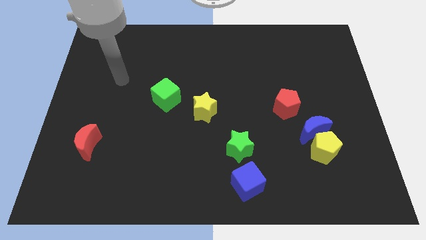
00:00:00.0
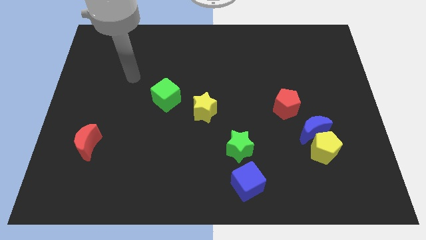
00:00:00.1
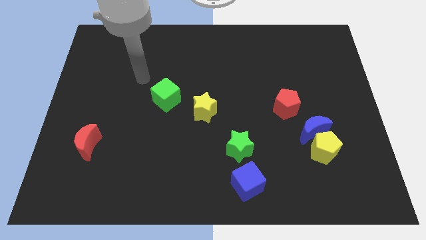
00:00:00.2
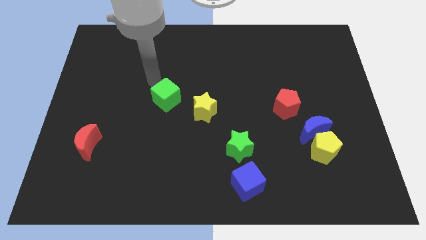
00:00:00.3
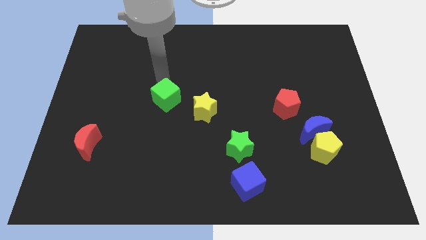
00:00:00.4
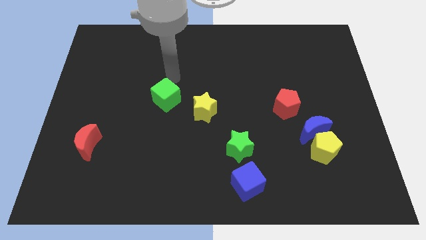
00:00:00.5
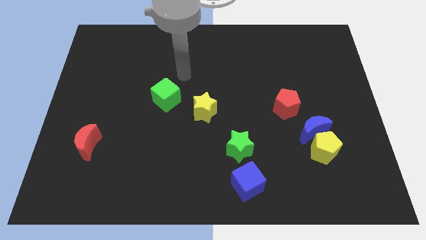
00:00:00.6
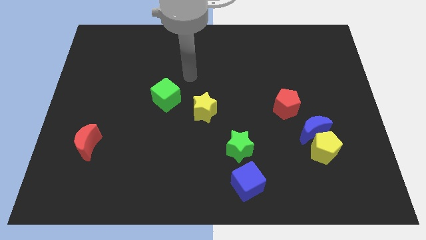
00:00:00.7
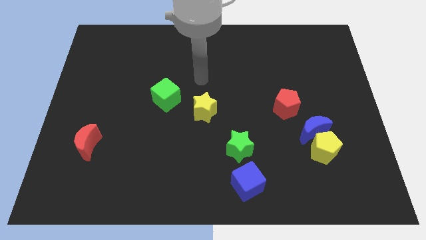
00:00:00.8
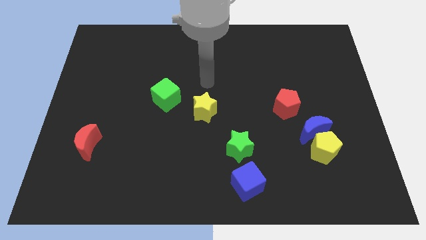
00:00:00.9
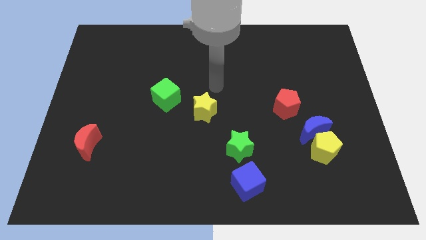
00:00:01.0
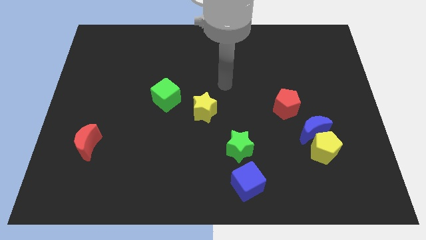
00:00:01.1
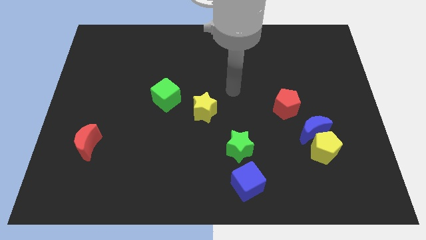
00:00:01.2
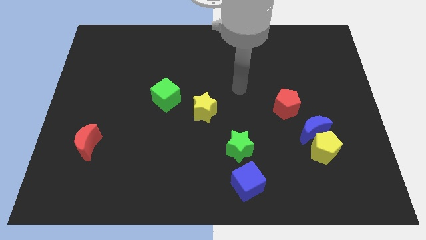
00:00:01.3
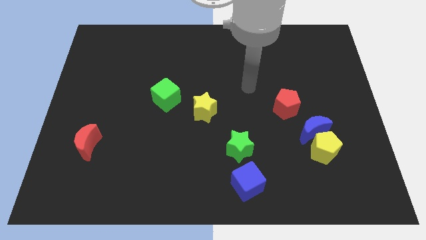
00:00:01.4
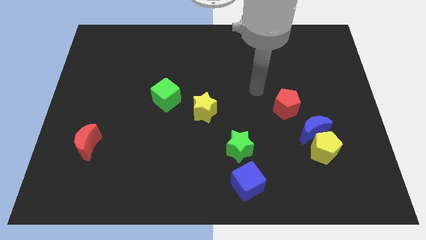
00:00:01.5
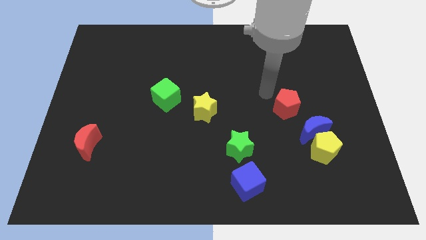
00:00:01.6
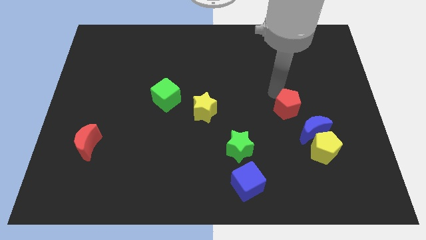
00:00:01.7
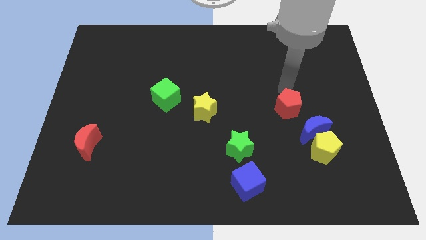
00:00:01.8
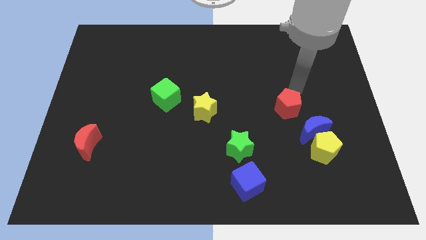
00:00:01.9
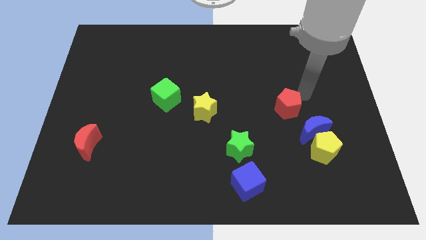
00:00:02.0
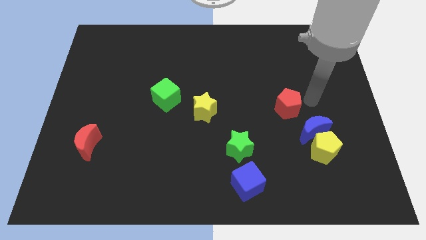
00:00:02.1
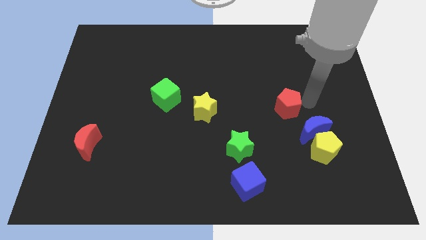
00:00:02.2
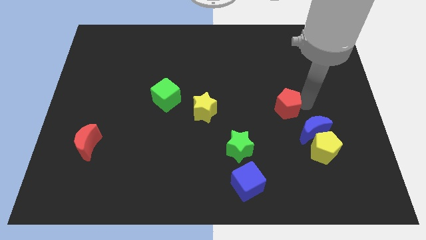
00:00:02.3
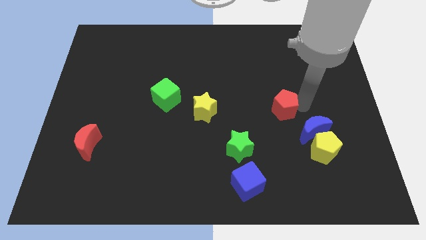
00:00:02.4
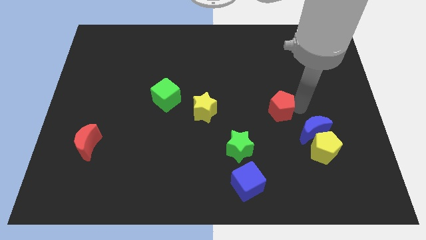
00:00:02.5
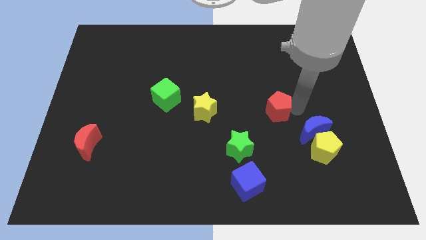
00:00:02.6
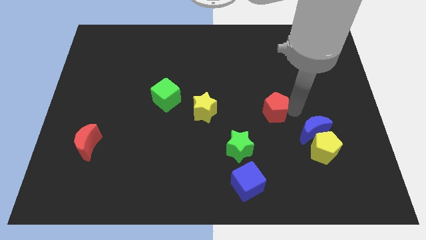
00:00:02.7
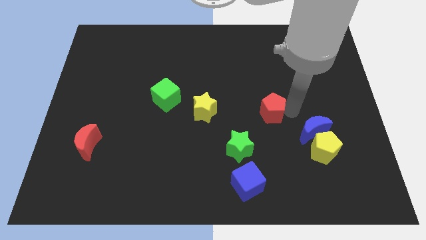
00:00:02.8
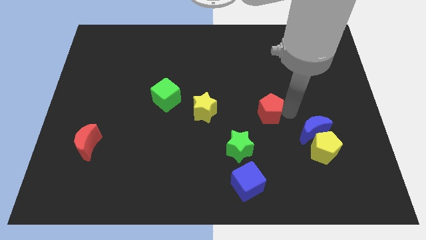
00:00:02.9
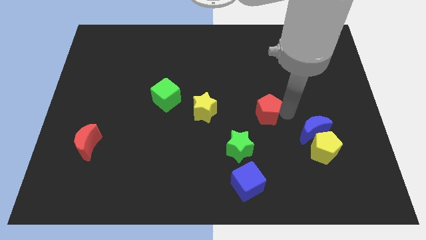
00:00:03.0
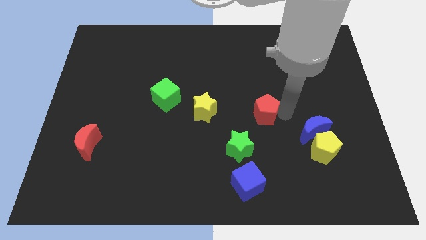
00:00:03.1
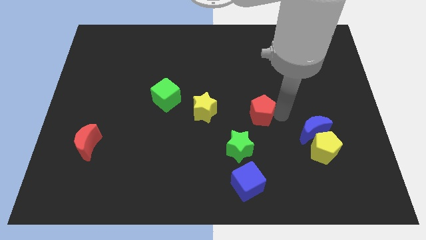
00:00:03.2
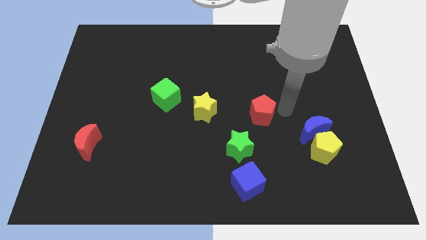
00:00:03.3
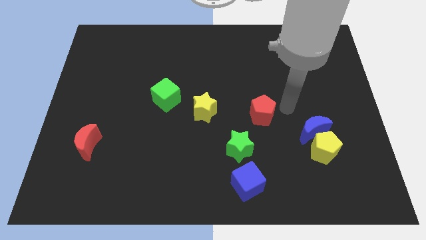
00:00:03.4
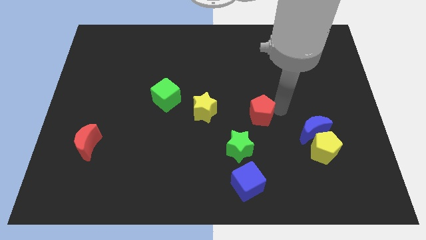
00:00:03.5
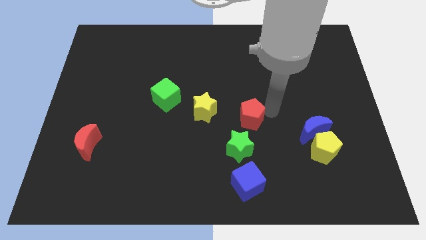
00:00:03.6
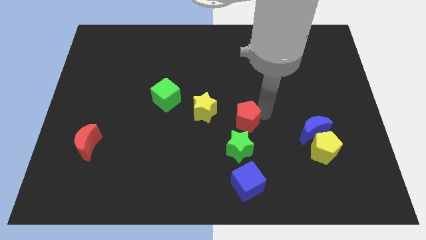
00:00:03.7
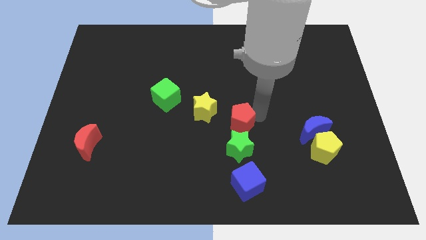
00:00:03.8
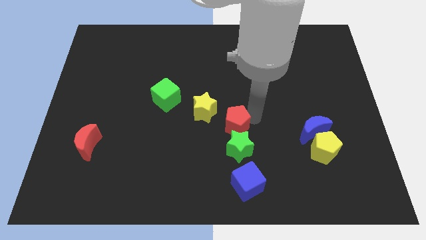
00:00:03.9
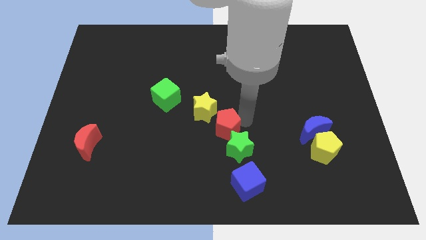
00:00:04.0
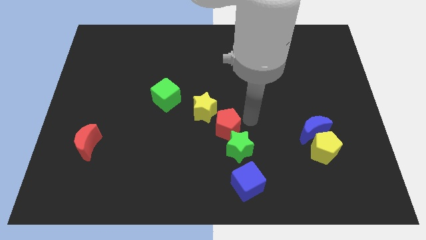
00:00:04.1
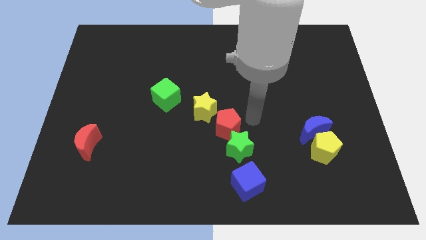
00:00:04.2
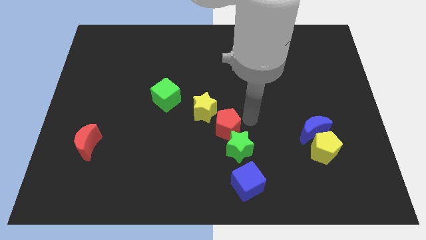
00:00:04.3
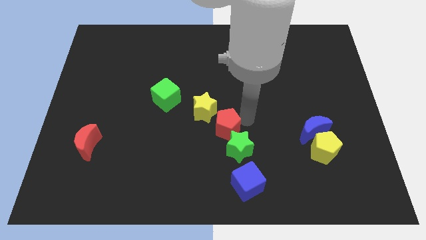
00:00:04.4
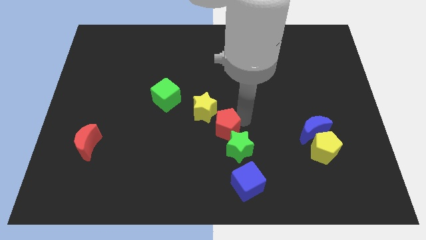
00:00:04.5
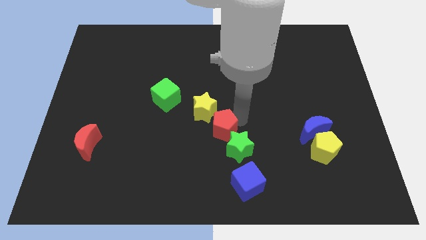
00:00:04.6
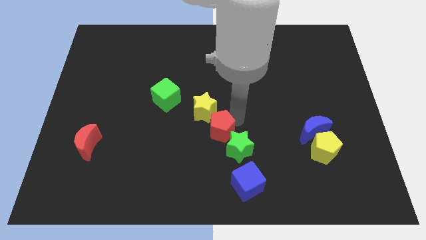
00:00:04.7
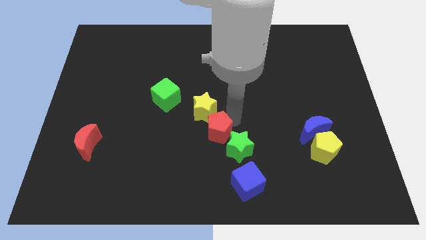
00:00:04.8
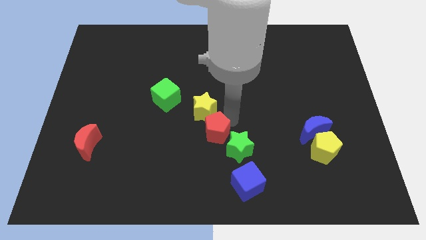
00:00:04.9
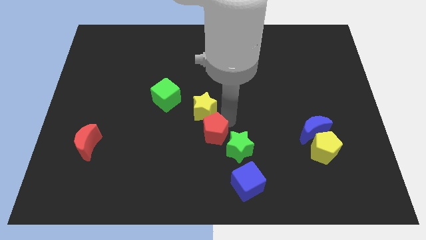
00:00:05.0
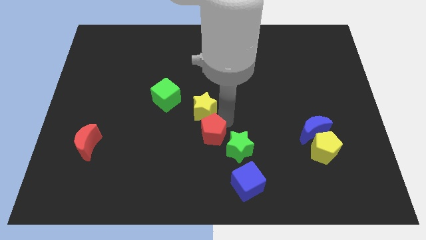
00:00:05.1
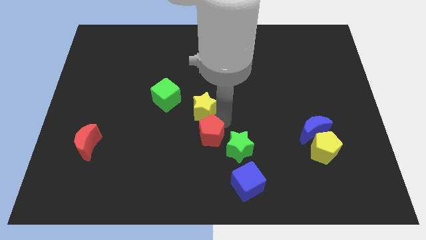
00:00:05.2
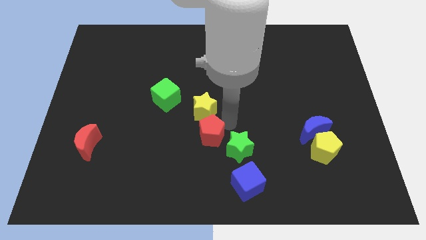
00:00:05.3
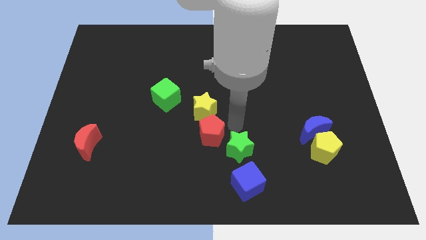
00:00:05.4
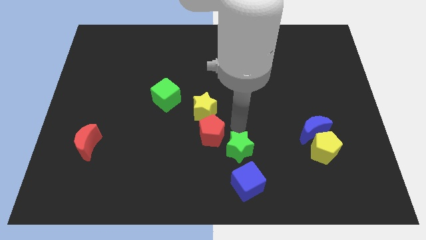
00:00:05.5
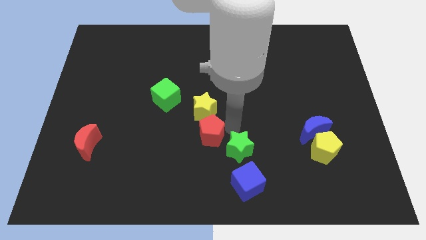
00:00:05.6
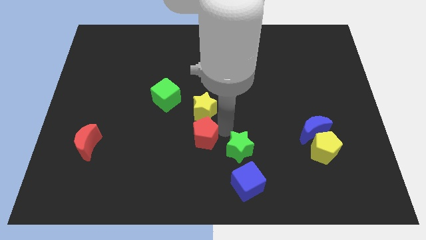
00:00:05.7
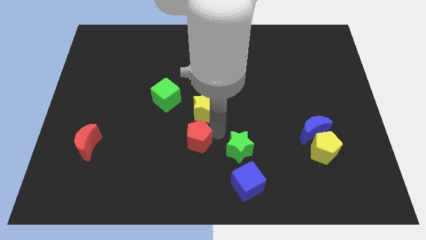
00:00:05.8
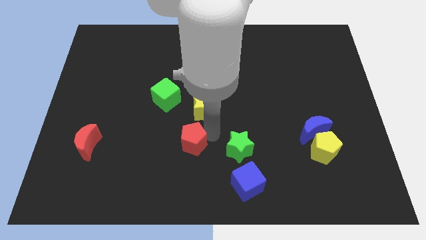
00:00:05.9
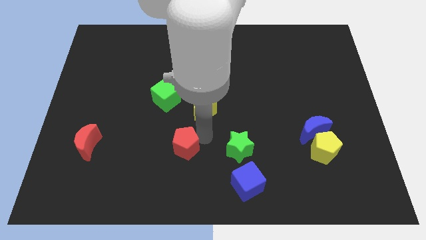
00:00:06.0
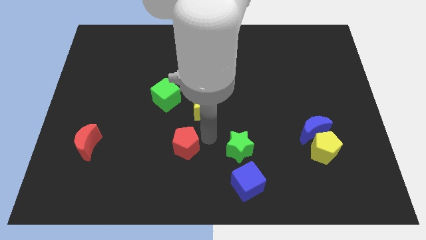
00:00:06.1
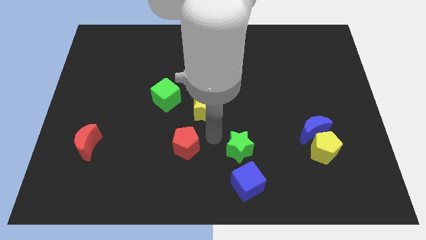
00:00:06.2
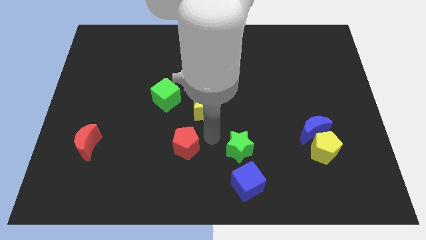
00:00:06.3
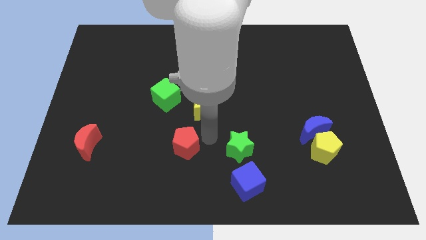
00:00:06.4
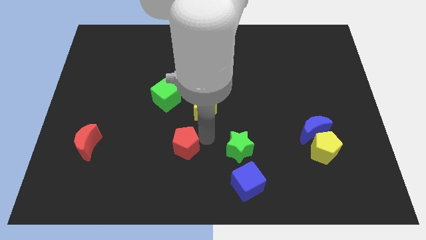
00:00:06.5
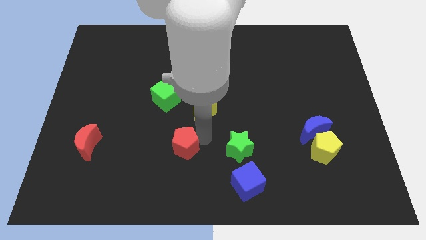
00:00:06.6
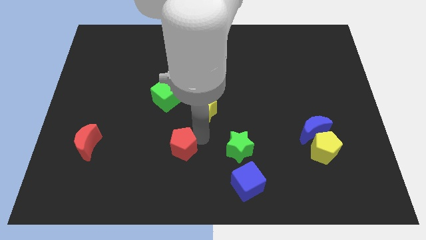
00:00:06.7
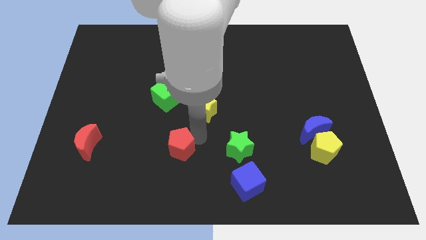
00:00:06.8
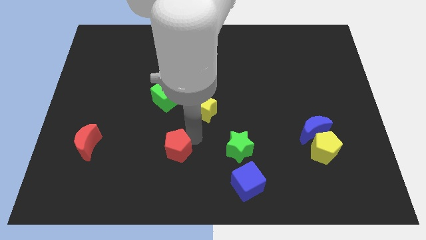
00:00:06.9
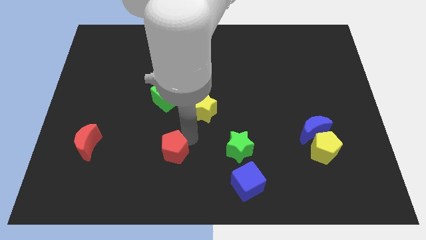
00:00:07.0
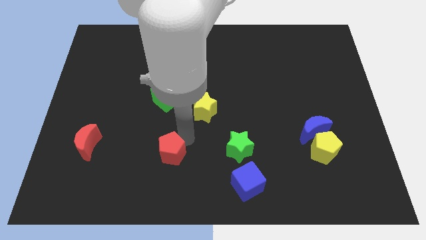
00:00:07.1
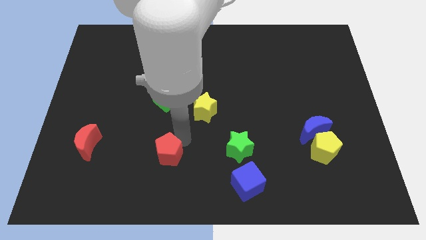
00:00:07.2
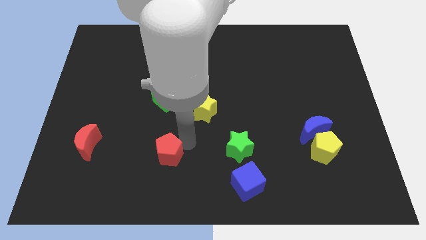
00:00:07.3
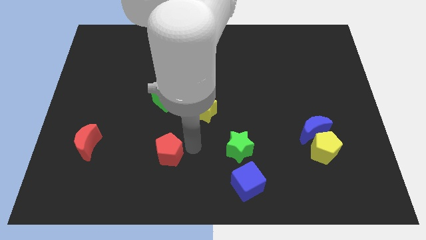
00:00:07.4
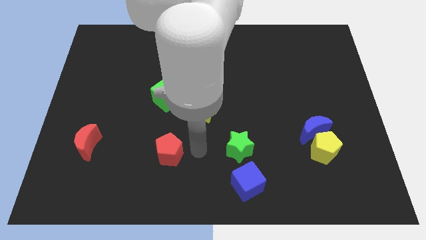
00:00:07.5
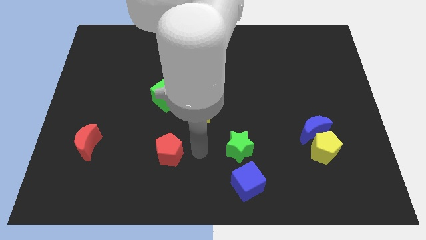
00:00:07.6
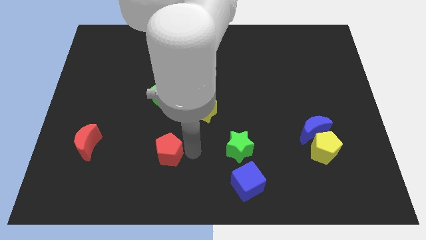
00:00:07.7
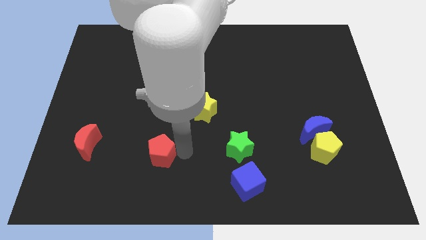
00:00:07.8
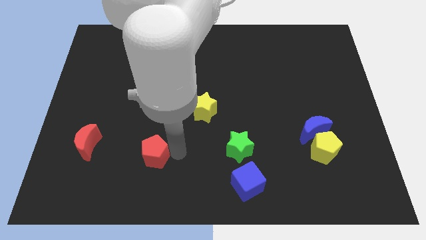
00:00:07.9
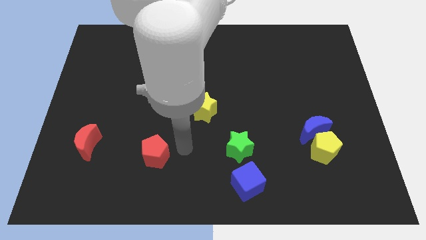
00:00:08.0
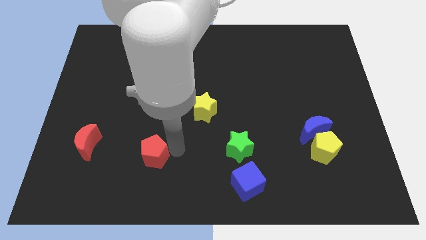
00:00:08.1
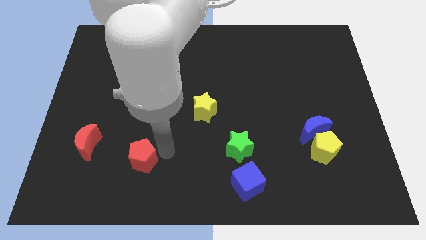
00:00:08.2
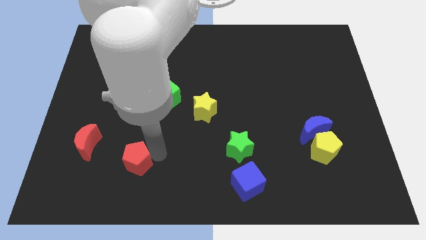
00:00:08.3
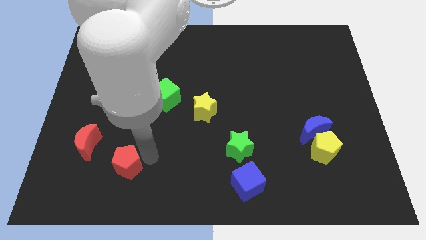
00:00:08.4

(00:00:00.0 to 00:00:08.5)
move the red pentagon to the bottom right of the red moon
